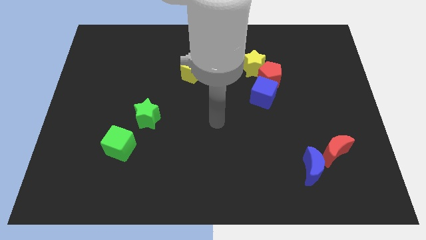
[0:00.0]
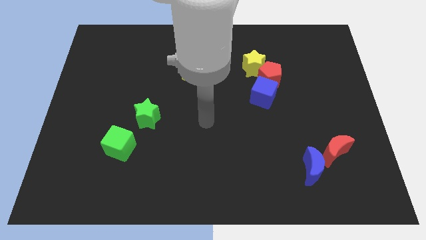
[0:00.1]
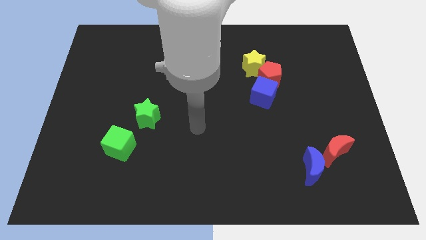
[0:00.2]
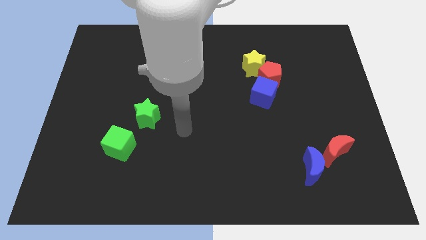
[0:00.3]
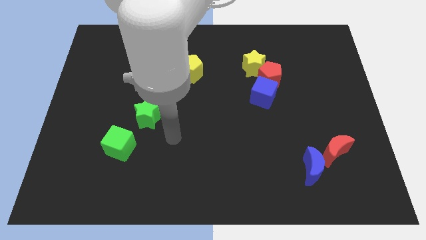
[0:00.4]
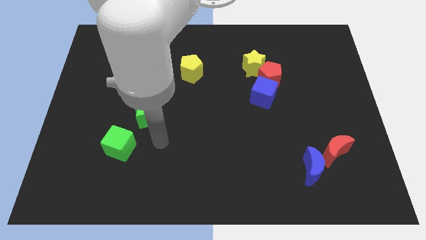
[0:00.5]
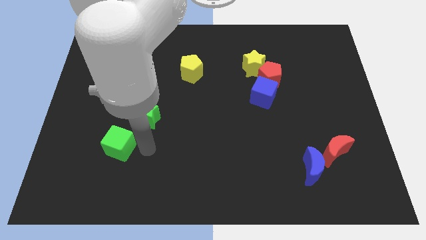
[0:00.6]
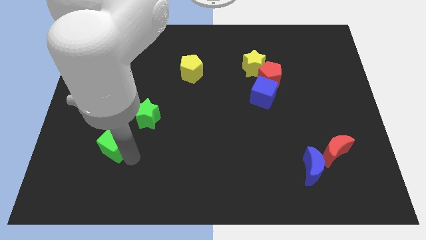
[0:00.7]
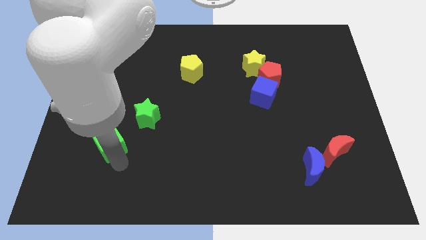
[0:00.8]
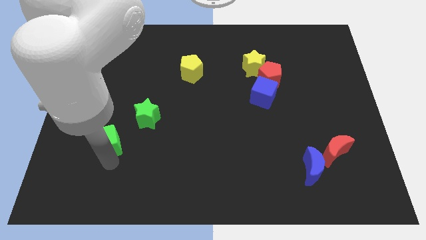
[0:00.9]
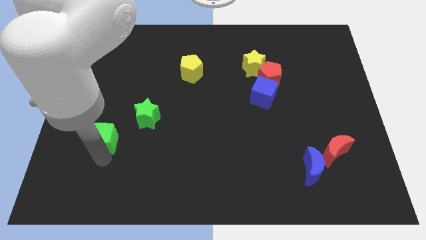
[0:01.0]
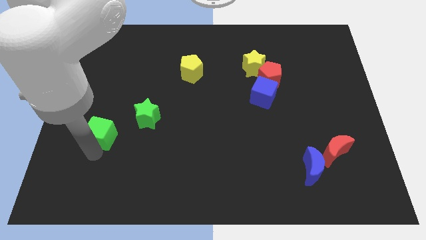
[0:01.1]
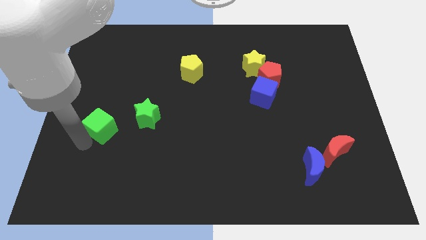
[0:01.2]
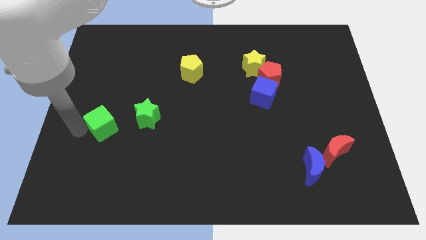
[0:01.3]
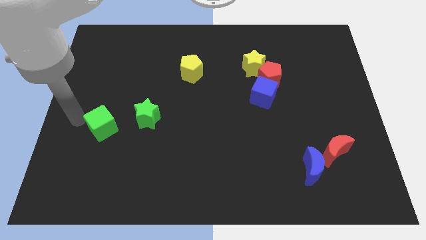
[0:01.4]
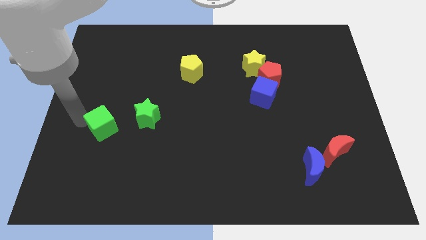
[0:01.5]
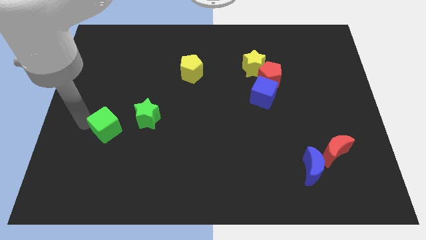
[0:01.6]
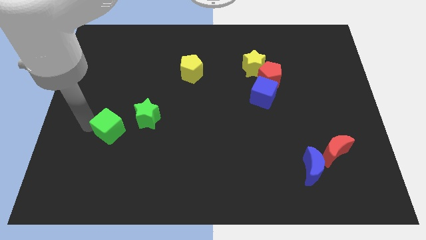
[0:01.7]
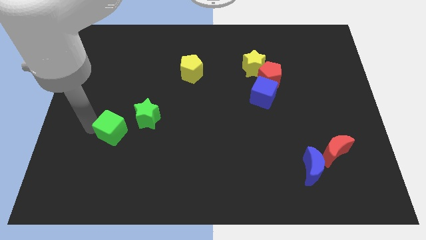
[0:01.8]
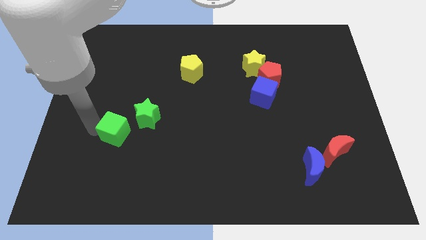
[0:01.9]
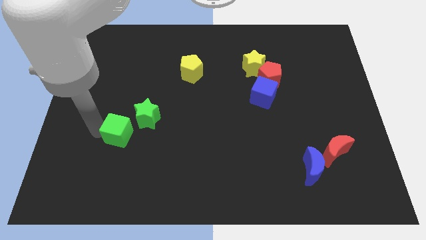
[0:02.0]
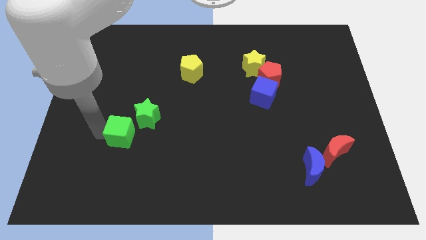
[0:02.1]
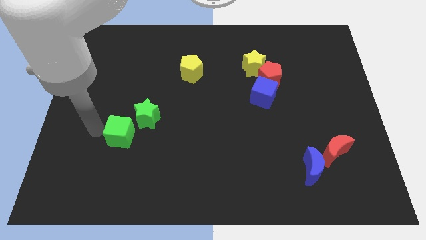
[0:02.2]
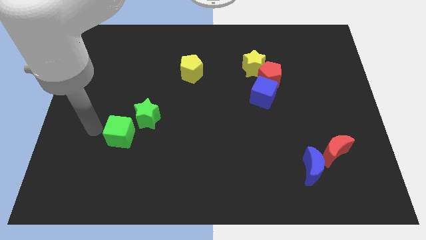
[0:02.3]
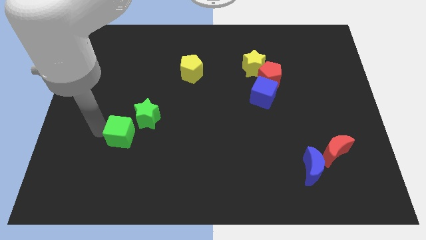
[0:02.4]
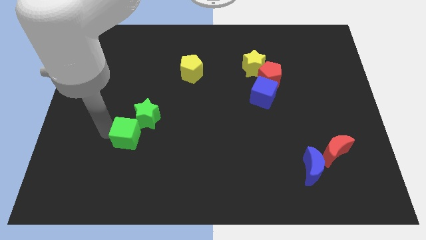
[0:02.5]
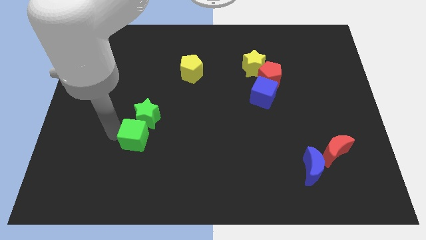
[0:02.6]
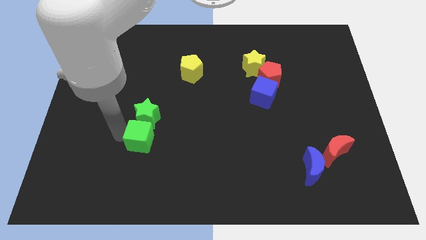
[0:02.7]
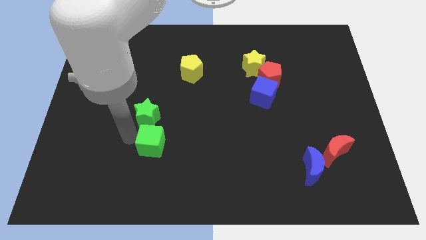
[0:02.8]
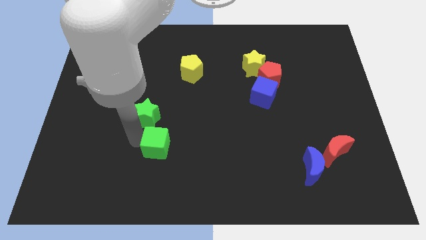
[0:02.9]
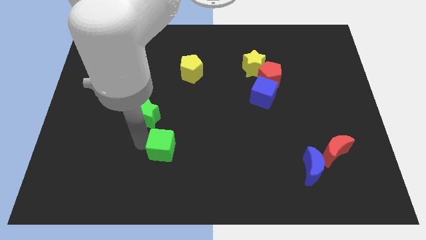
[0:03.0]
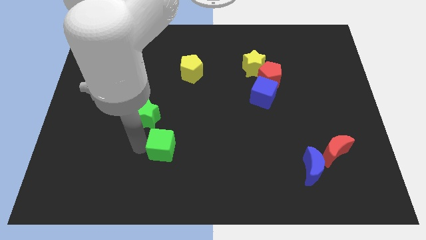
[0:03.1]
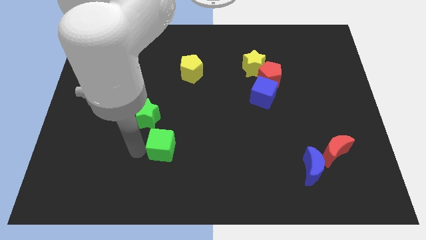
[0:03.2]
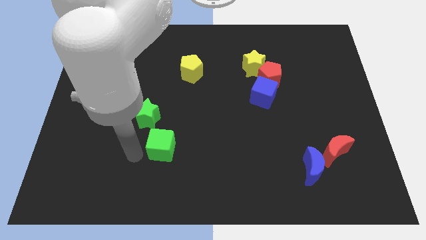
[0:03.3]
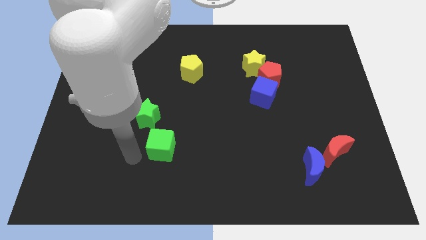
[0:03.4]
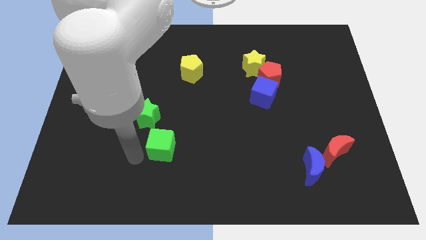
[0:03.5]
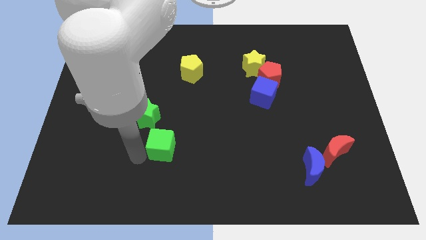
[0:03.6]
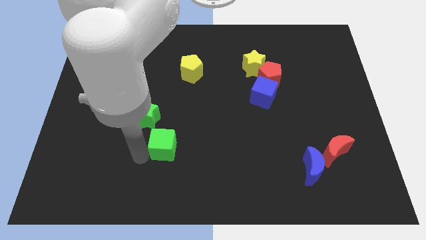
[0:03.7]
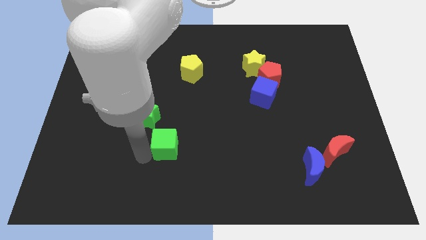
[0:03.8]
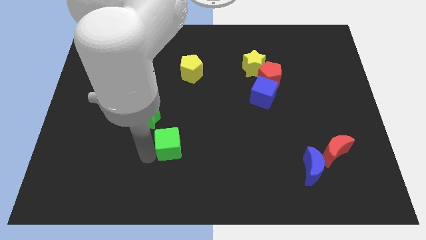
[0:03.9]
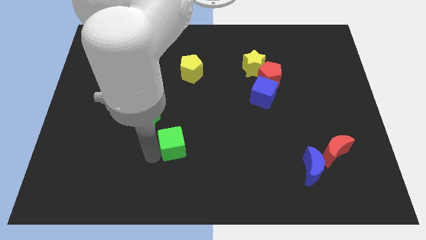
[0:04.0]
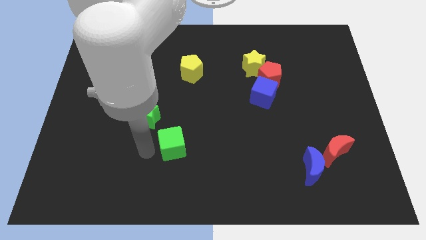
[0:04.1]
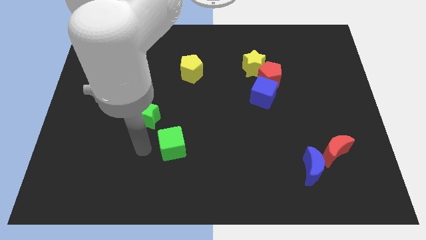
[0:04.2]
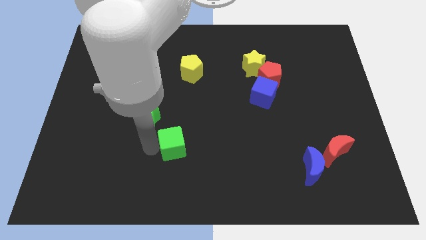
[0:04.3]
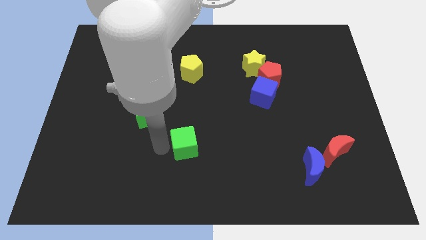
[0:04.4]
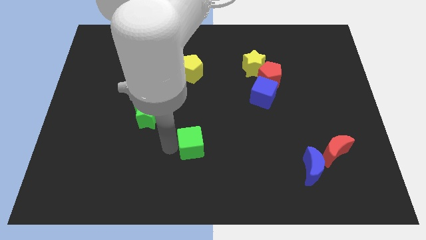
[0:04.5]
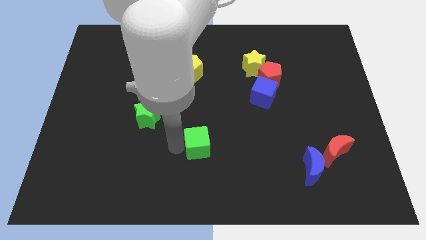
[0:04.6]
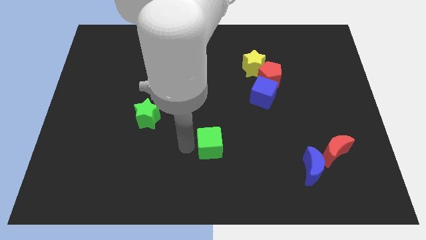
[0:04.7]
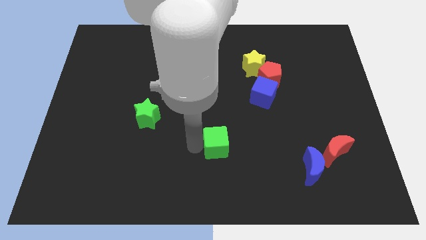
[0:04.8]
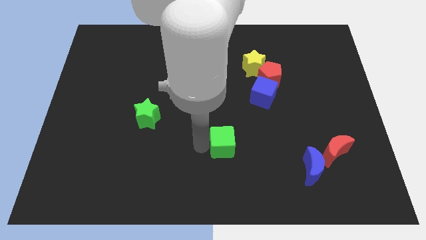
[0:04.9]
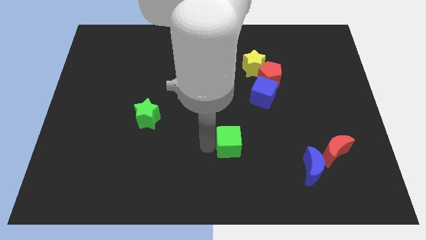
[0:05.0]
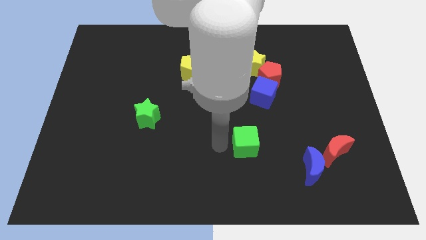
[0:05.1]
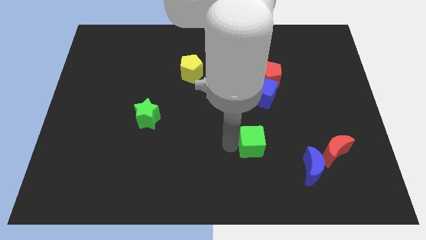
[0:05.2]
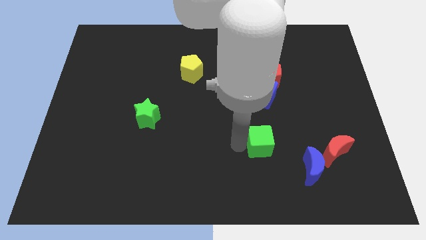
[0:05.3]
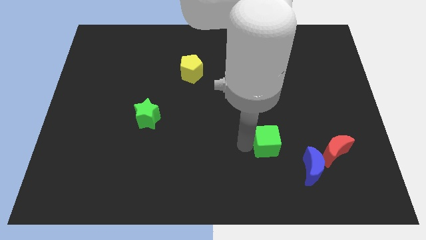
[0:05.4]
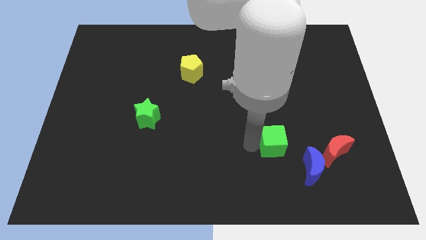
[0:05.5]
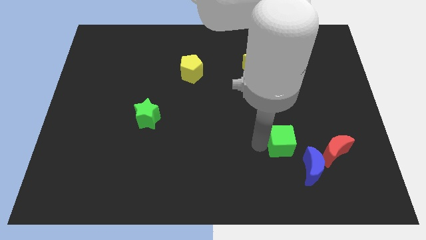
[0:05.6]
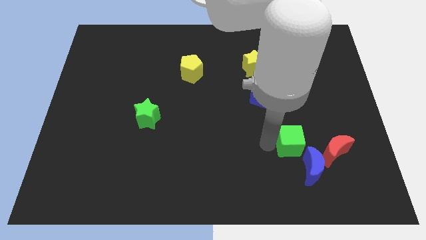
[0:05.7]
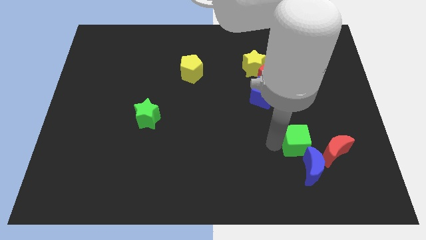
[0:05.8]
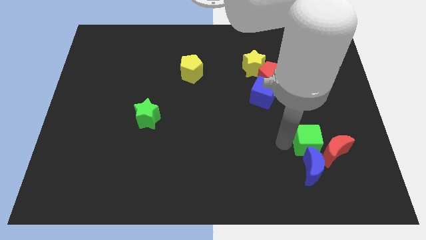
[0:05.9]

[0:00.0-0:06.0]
slide the green cube close to the red moon

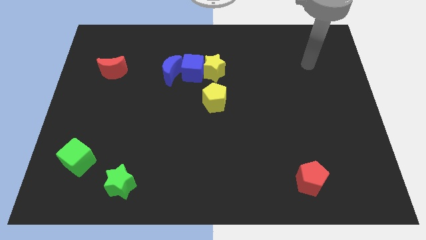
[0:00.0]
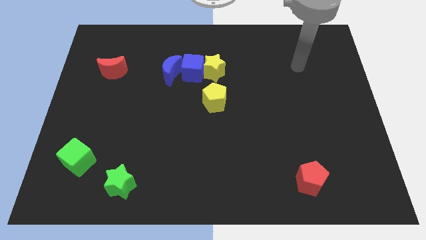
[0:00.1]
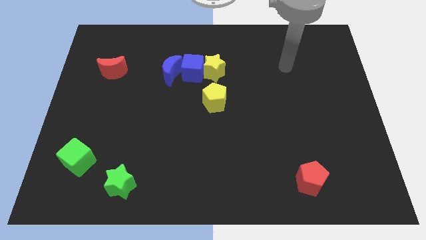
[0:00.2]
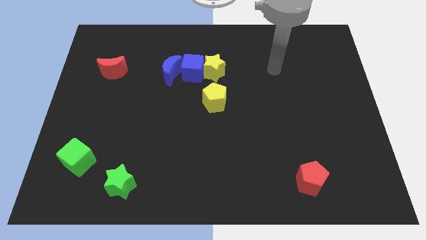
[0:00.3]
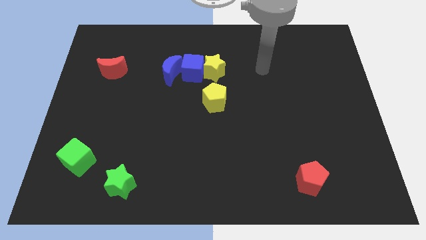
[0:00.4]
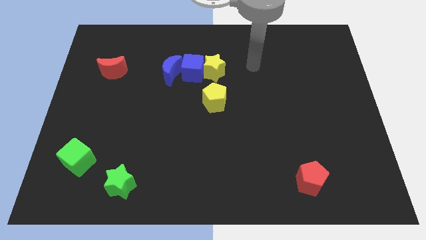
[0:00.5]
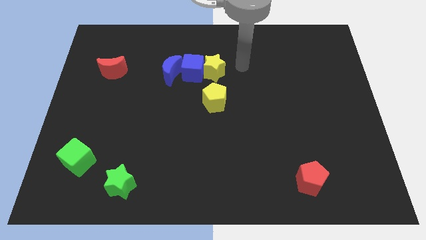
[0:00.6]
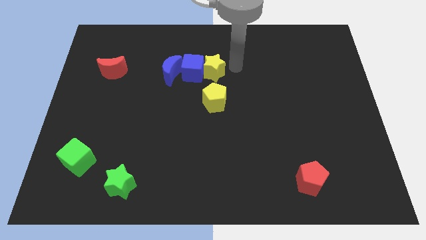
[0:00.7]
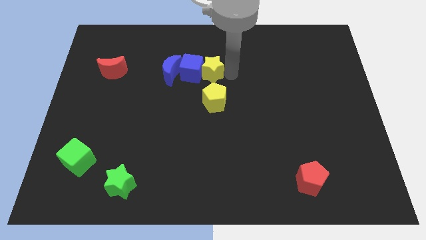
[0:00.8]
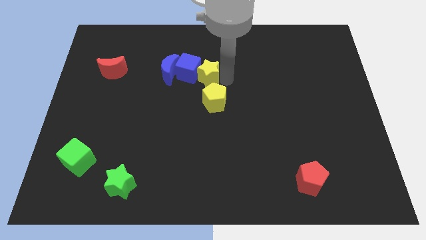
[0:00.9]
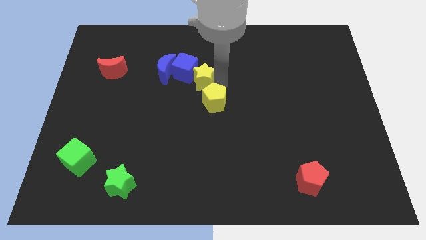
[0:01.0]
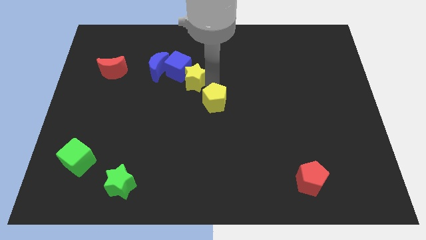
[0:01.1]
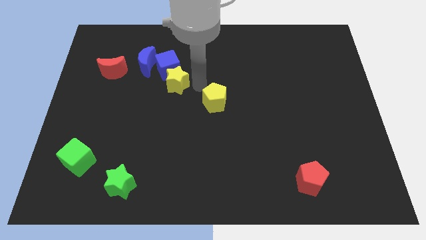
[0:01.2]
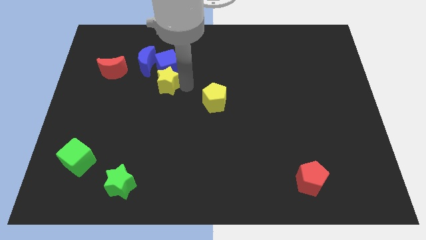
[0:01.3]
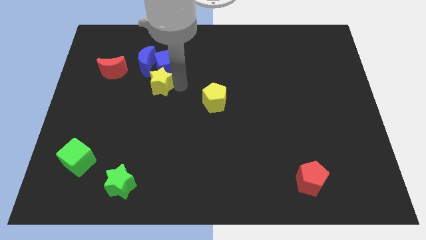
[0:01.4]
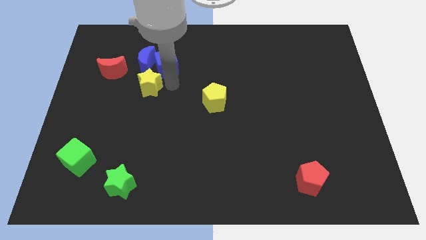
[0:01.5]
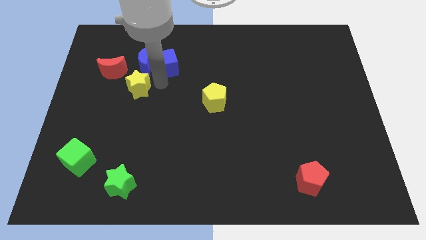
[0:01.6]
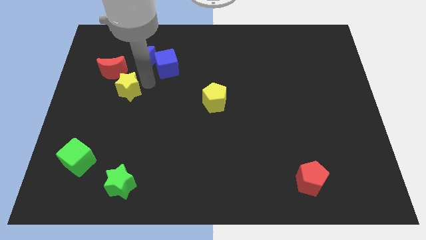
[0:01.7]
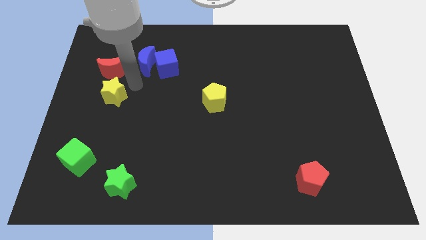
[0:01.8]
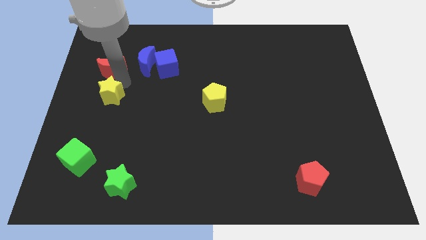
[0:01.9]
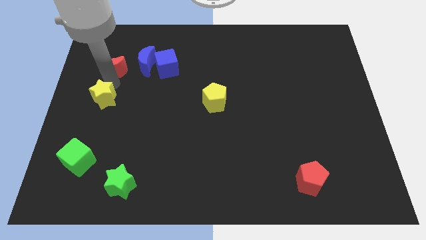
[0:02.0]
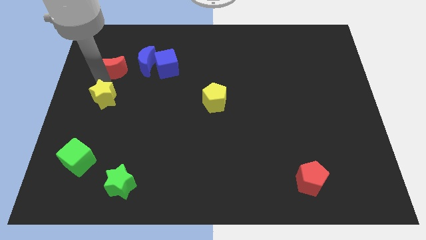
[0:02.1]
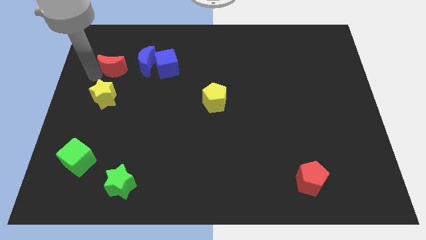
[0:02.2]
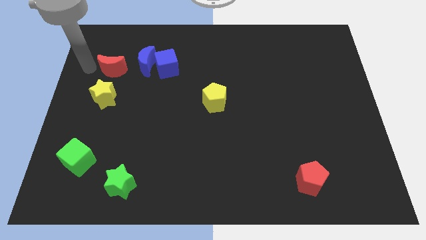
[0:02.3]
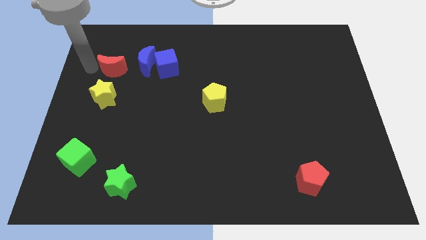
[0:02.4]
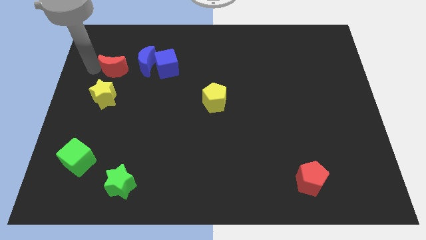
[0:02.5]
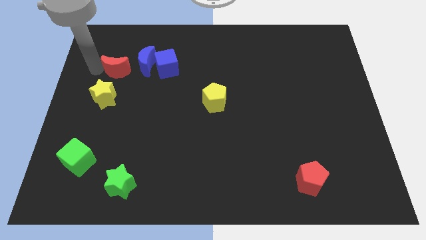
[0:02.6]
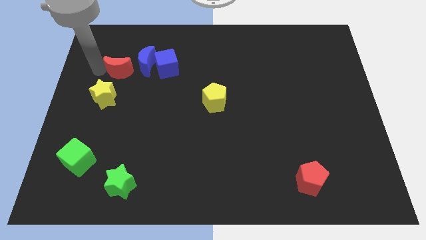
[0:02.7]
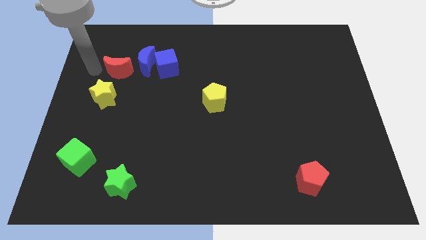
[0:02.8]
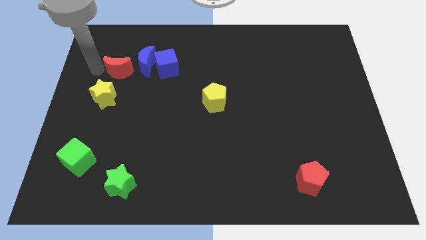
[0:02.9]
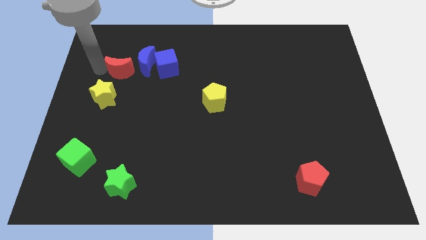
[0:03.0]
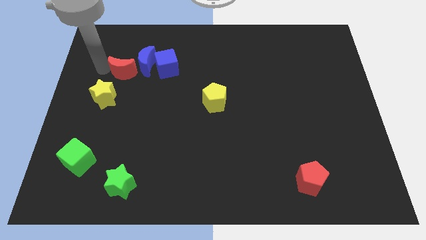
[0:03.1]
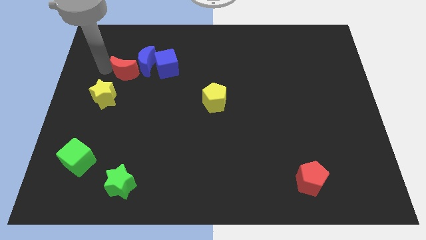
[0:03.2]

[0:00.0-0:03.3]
slide the red moon close to the blue moon
